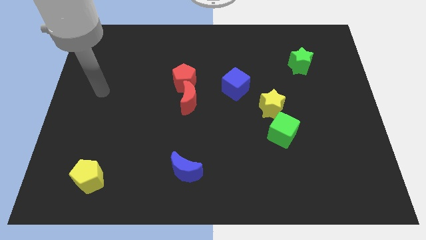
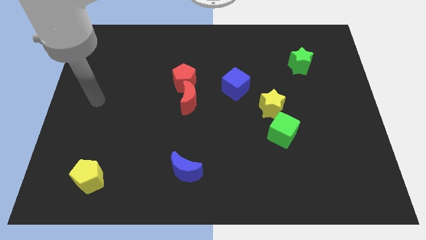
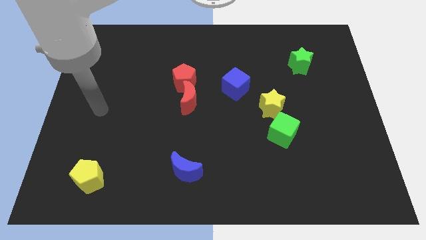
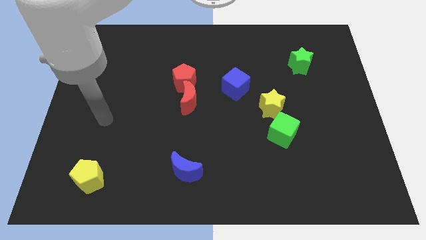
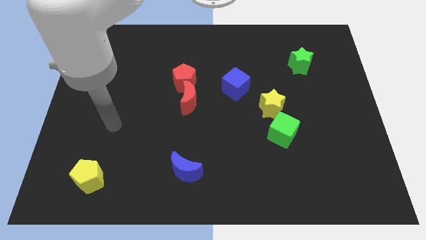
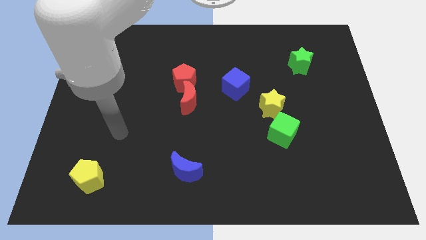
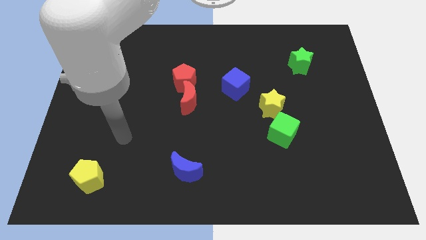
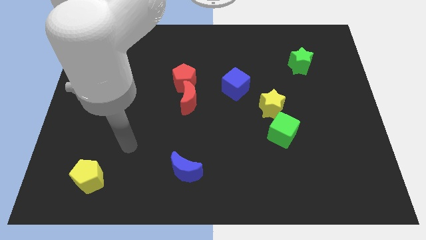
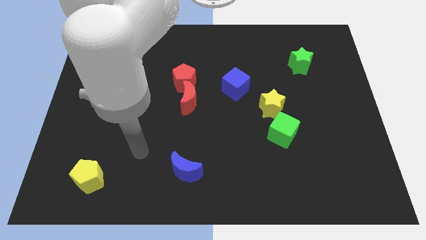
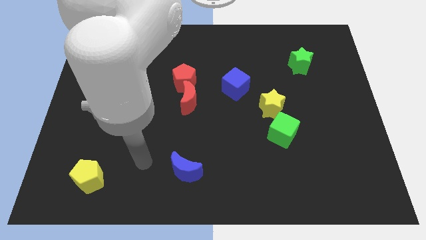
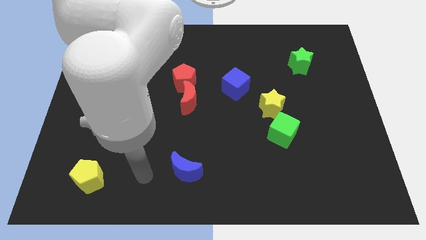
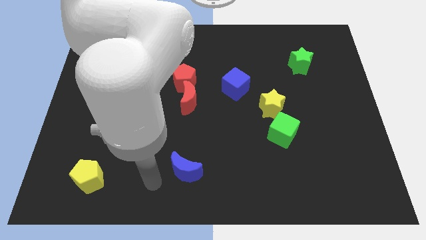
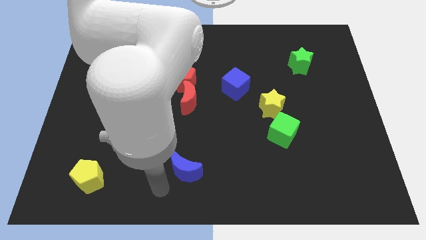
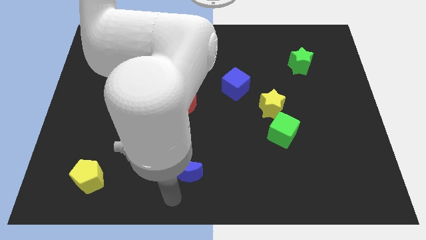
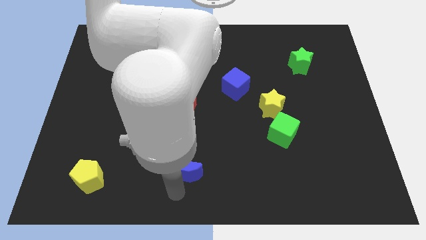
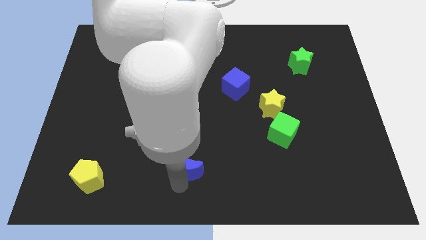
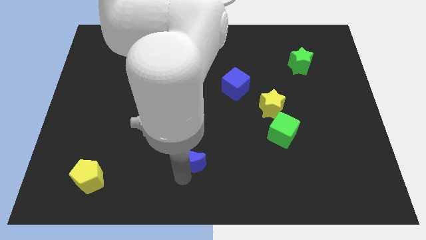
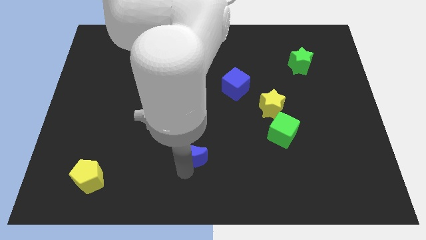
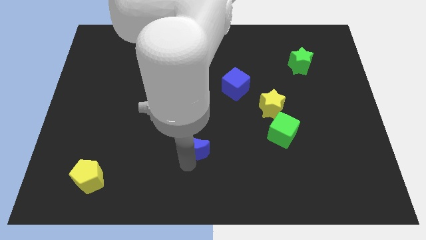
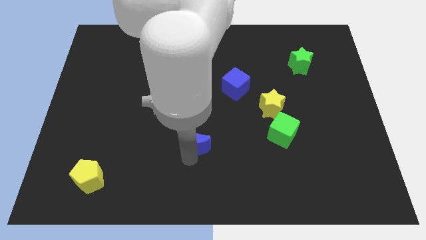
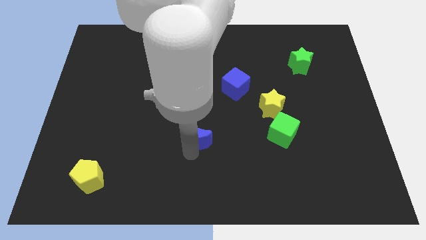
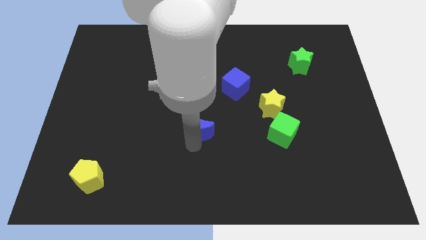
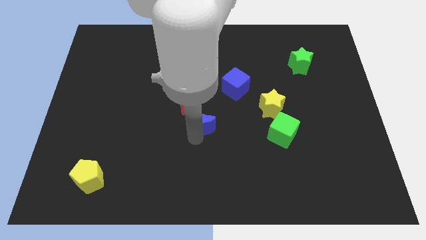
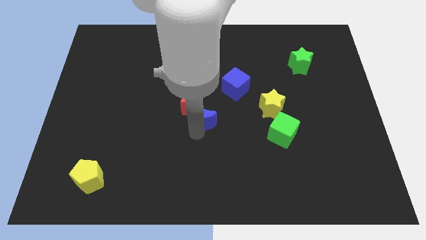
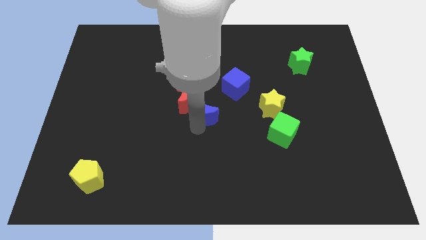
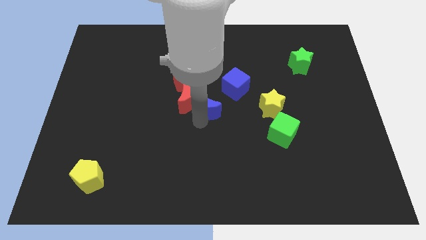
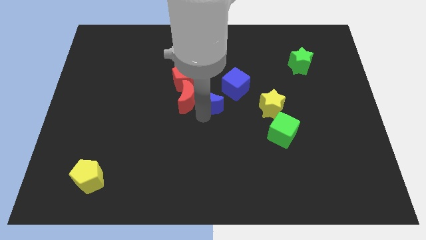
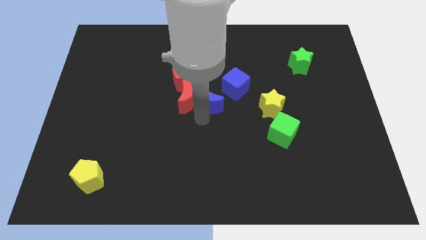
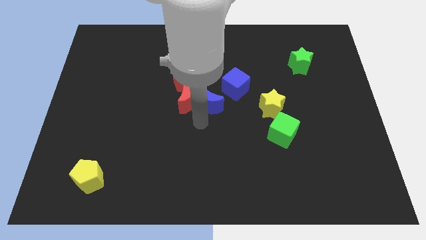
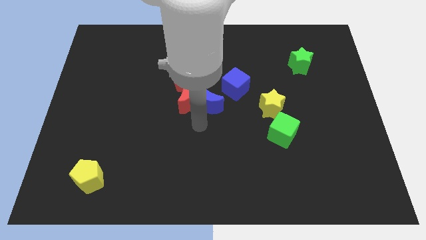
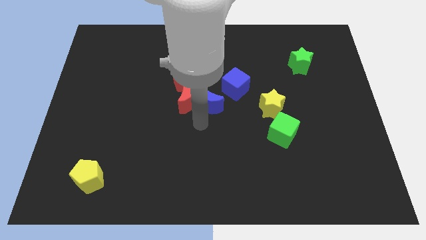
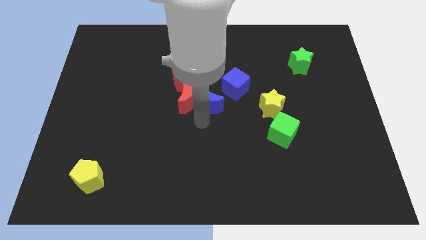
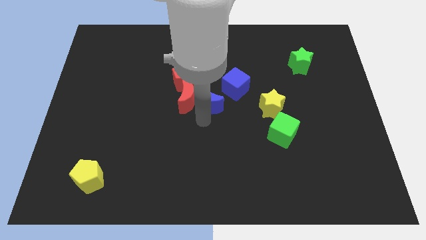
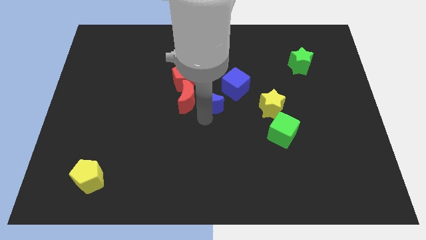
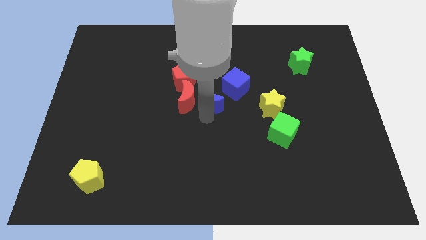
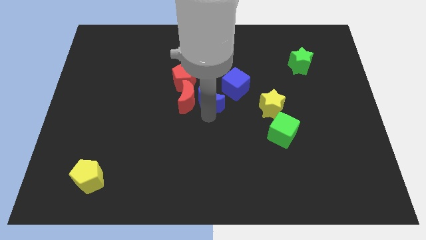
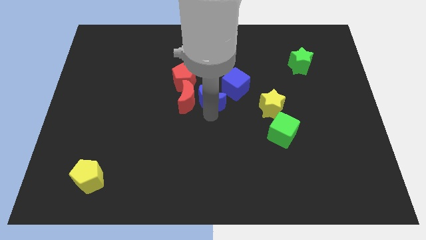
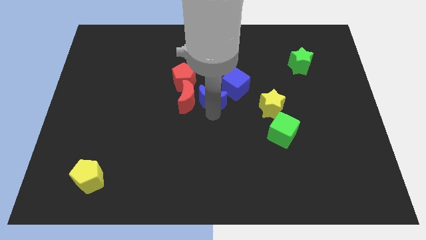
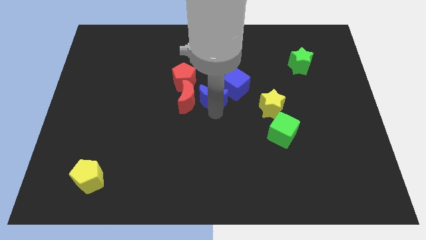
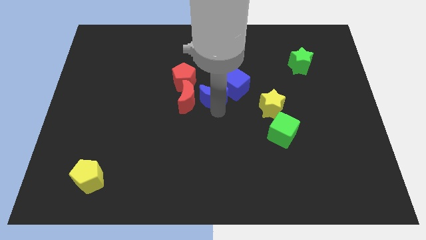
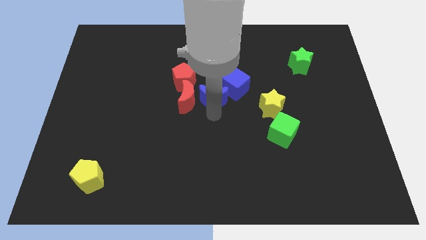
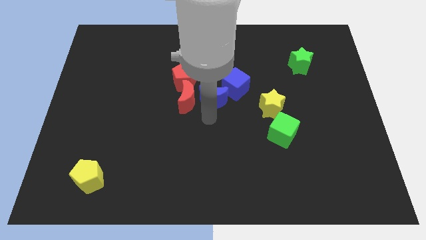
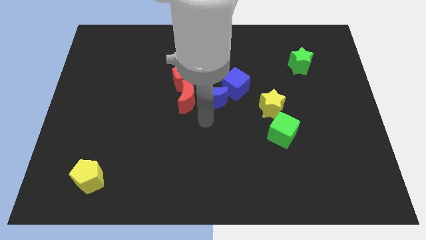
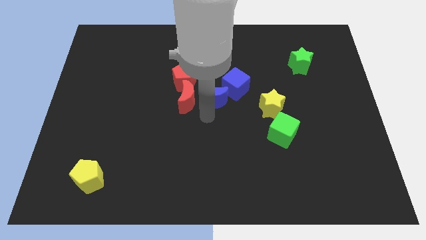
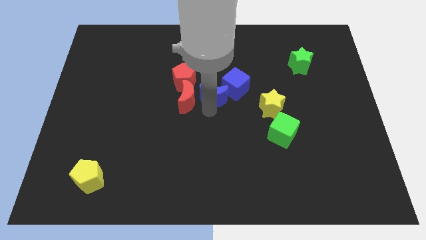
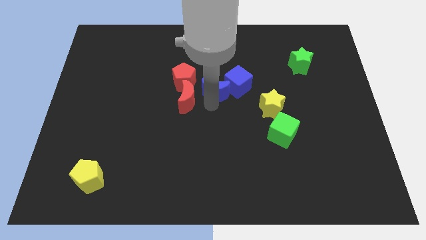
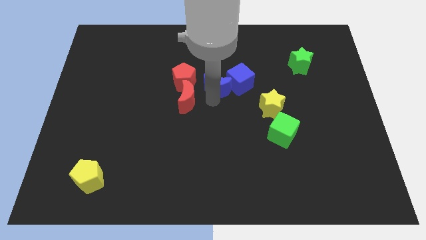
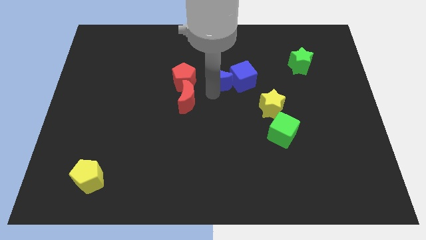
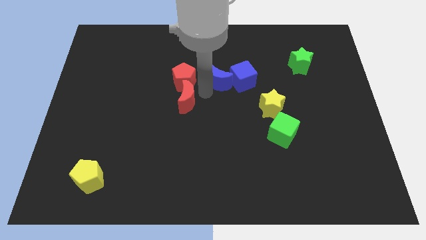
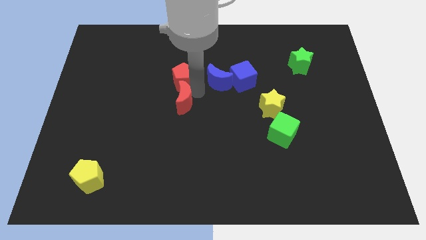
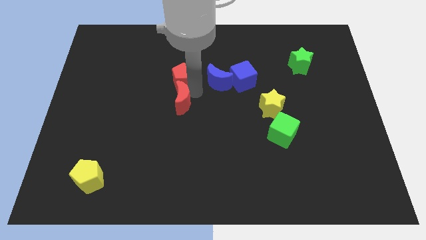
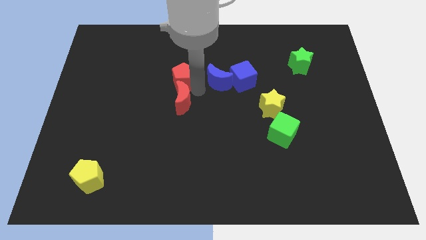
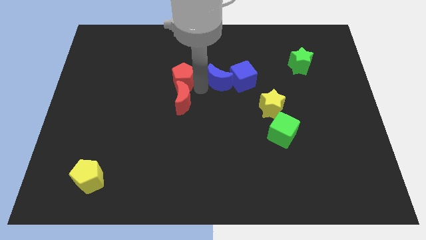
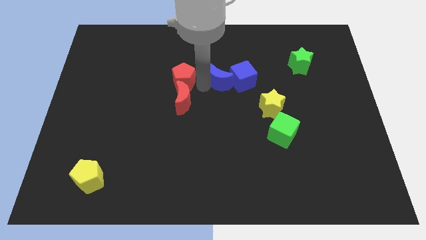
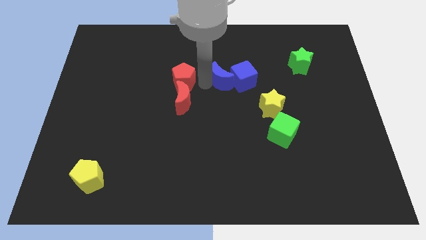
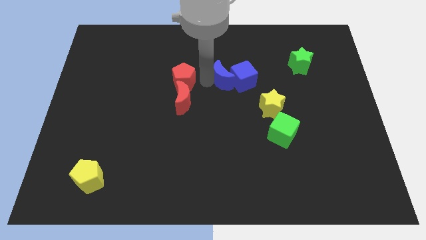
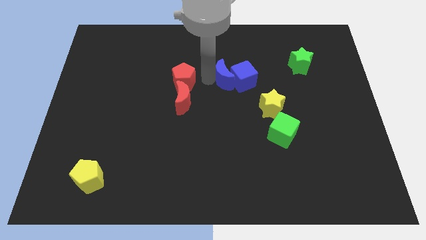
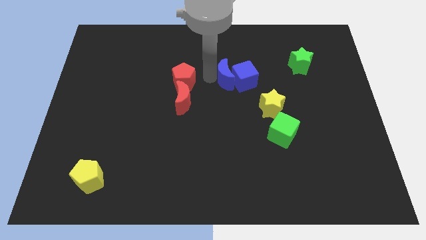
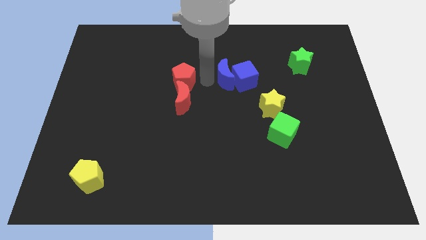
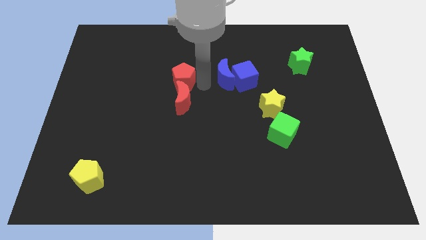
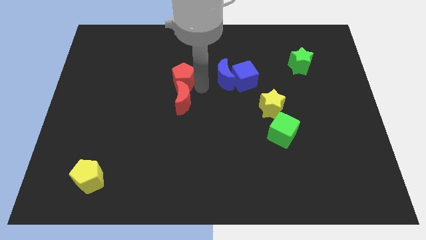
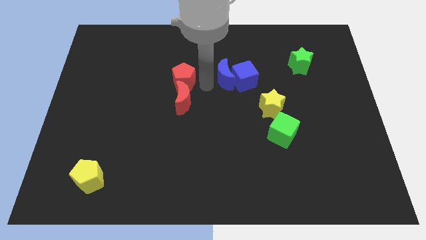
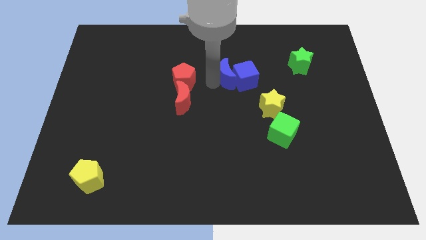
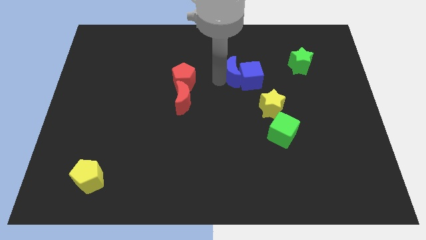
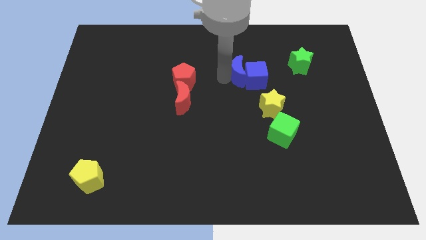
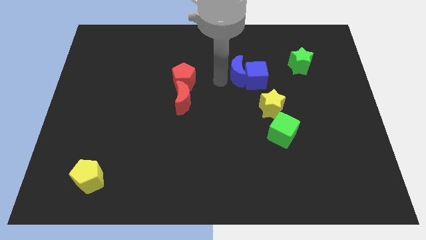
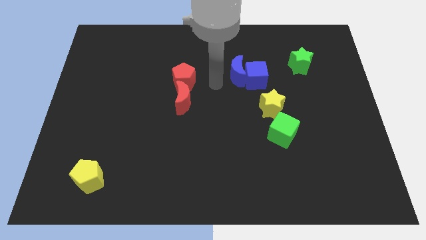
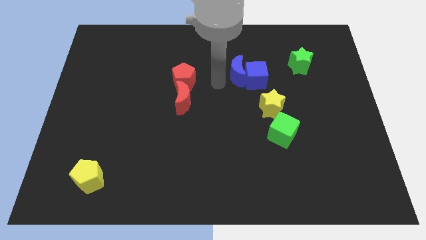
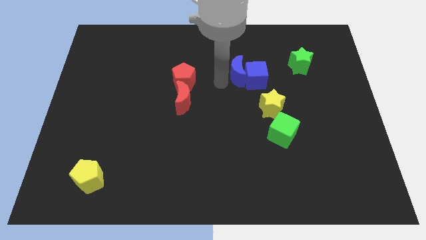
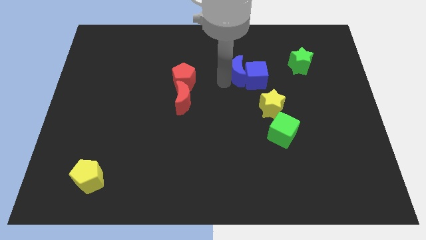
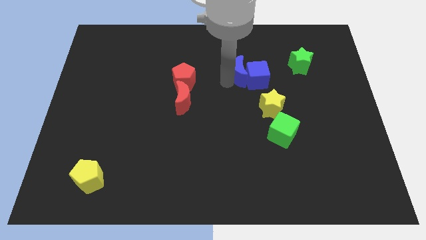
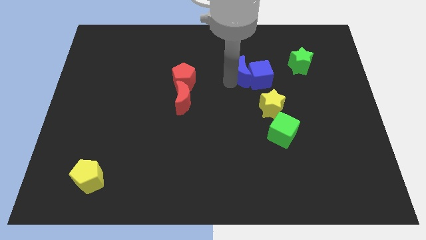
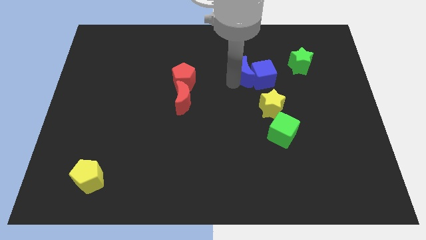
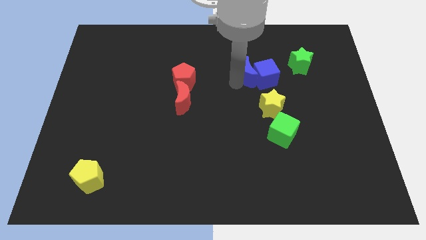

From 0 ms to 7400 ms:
put the blue moon to the left side of the green star
